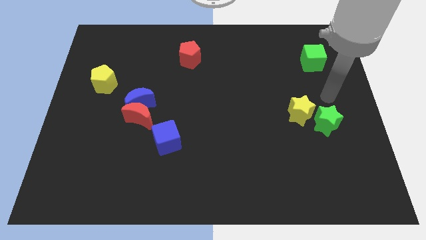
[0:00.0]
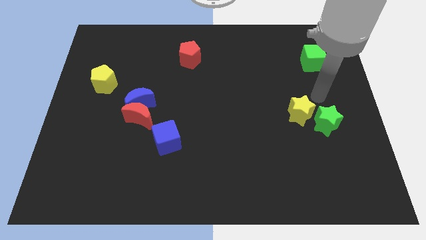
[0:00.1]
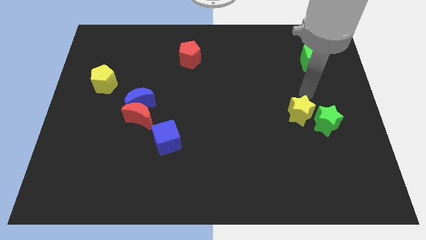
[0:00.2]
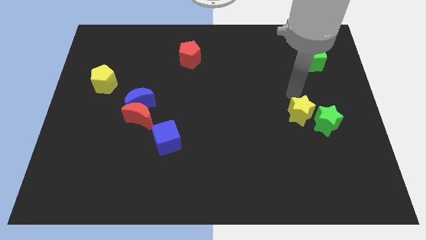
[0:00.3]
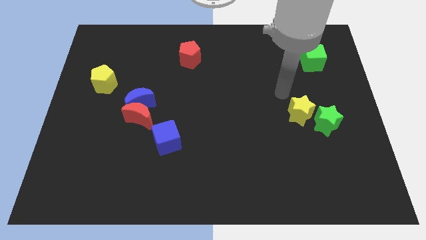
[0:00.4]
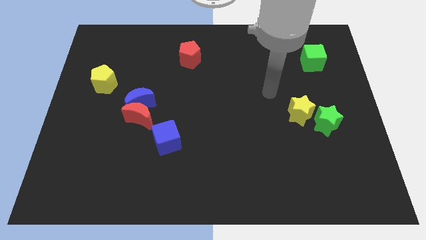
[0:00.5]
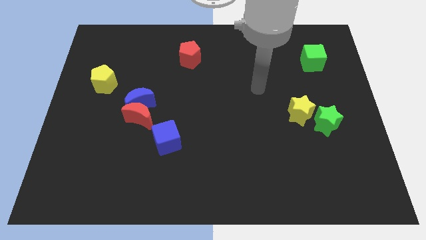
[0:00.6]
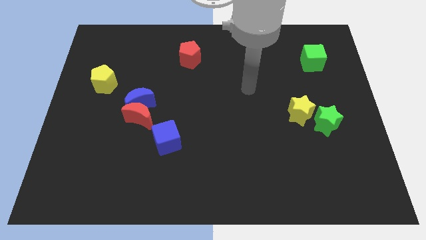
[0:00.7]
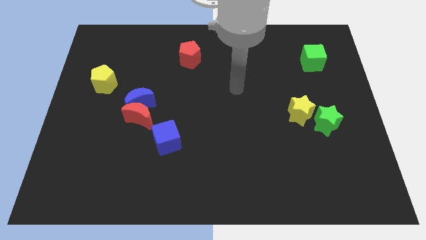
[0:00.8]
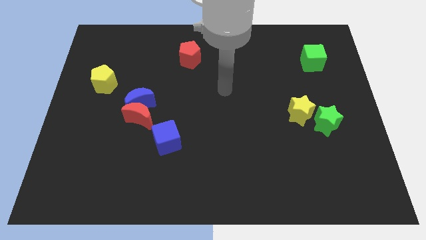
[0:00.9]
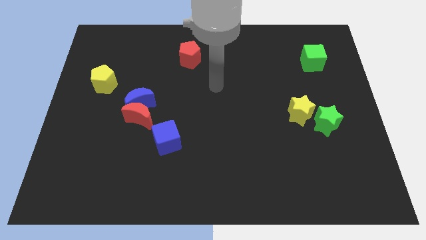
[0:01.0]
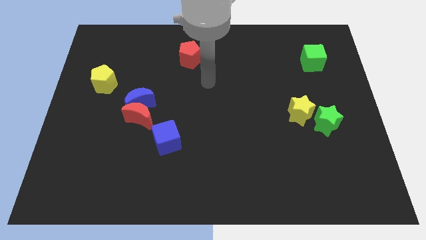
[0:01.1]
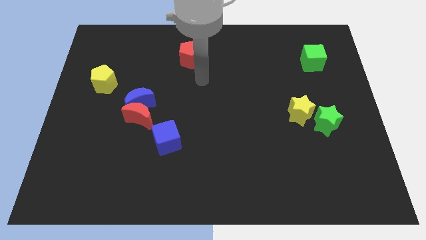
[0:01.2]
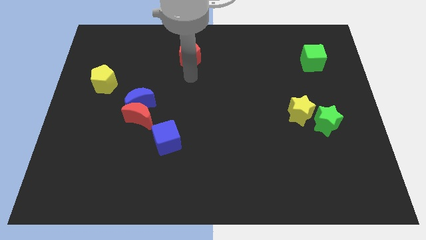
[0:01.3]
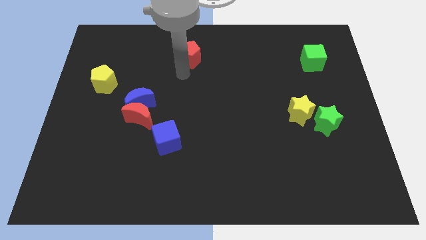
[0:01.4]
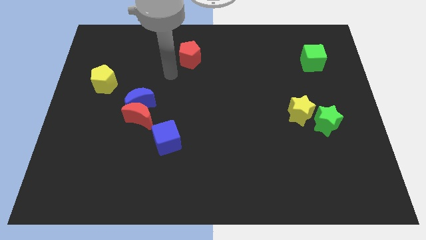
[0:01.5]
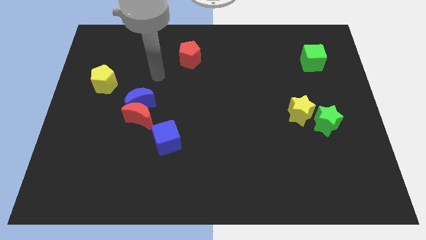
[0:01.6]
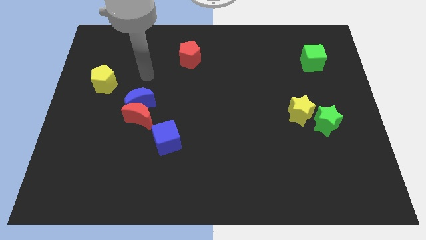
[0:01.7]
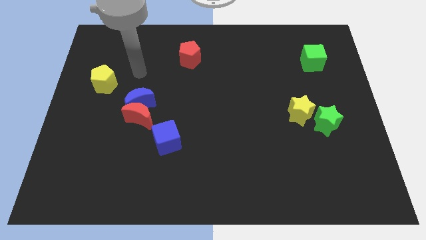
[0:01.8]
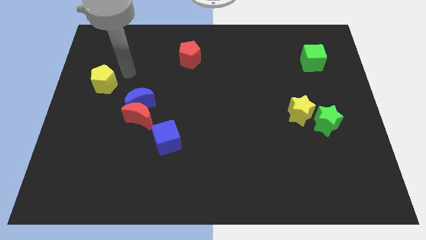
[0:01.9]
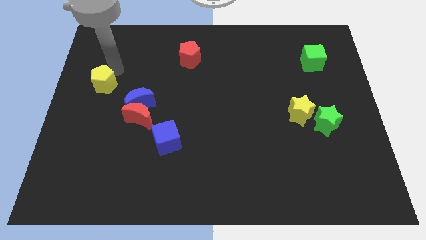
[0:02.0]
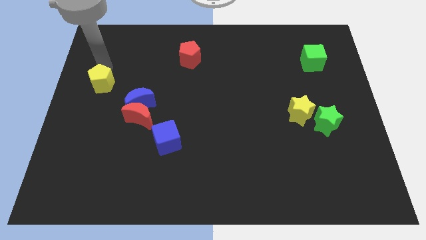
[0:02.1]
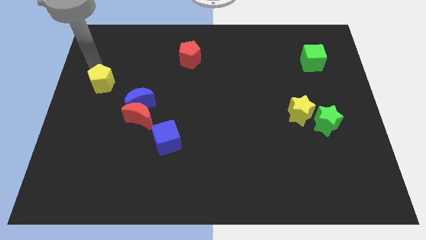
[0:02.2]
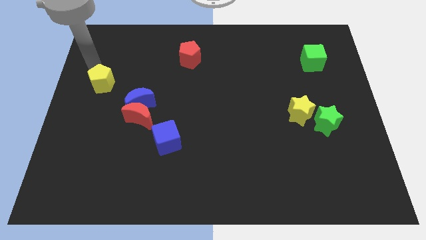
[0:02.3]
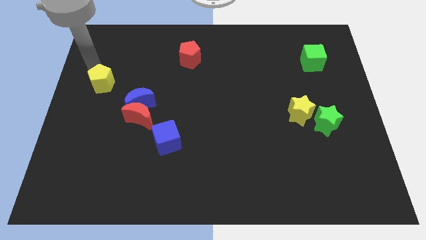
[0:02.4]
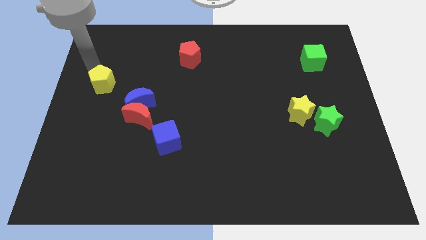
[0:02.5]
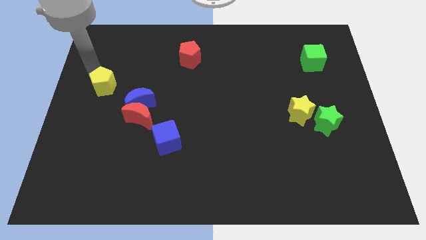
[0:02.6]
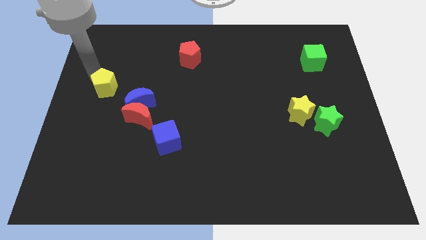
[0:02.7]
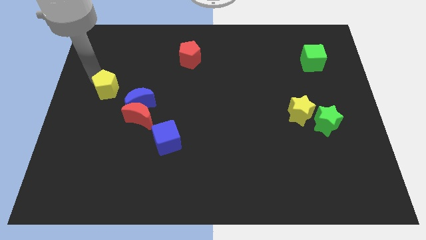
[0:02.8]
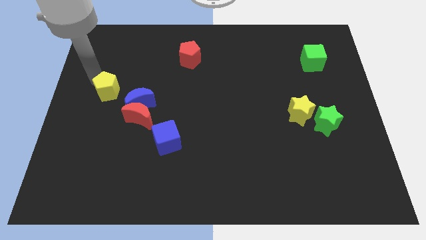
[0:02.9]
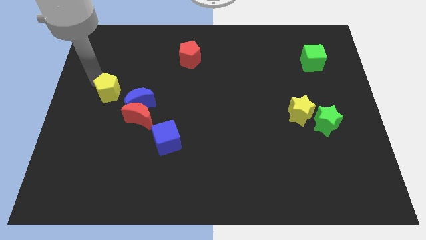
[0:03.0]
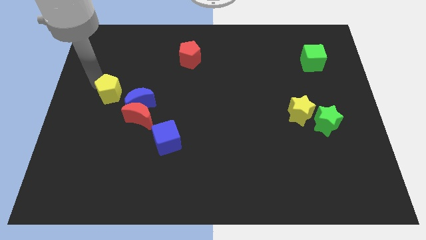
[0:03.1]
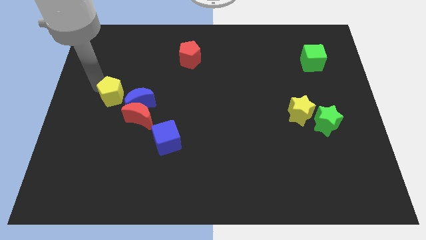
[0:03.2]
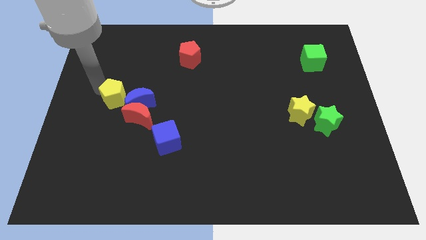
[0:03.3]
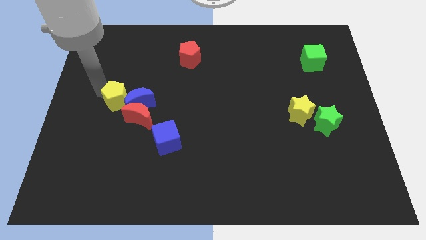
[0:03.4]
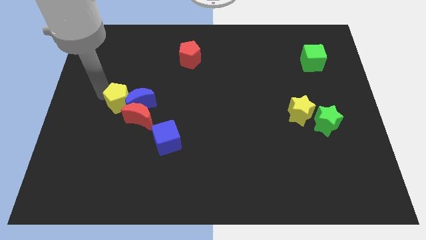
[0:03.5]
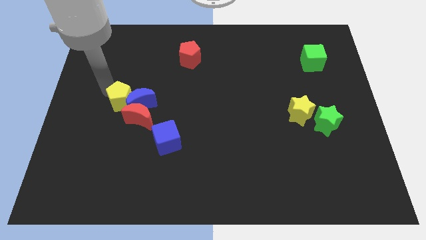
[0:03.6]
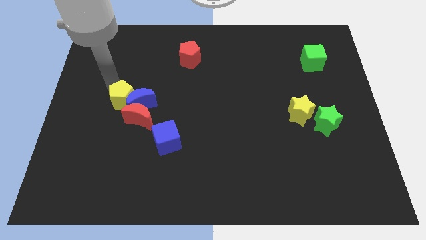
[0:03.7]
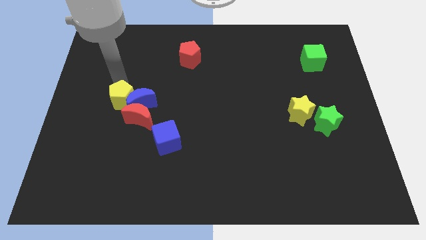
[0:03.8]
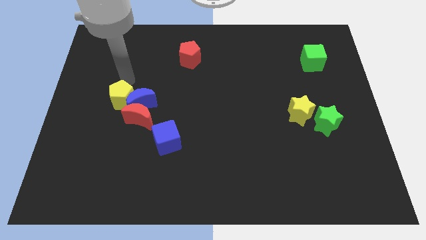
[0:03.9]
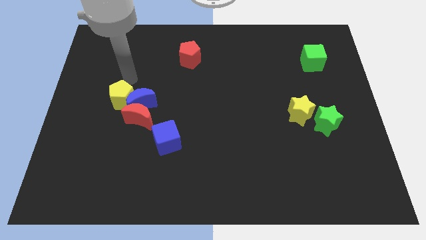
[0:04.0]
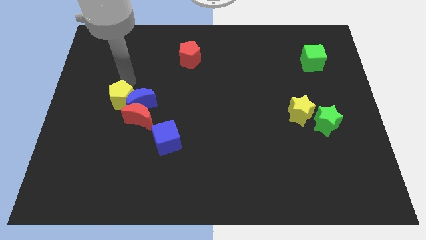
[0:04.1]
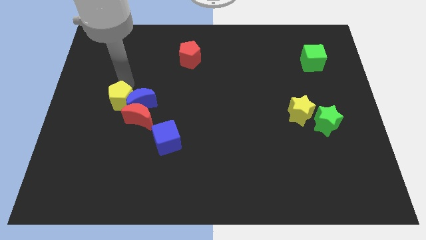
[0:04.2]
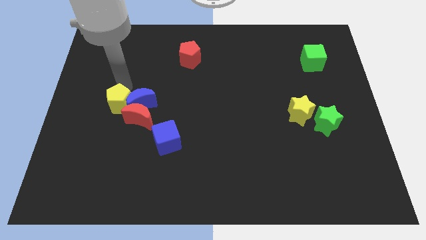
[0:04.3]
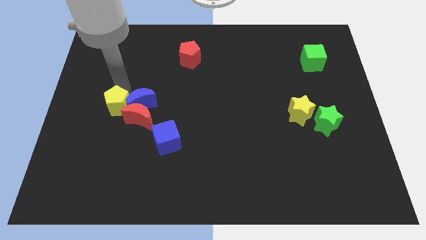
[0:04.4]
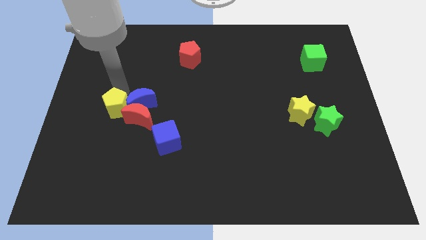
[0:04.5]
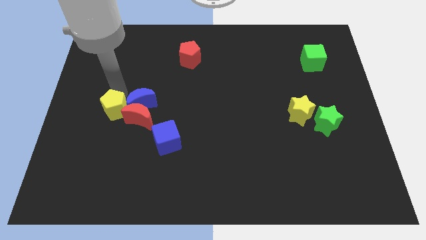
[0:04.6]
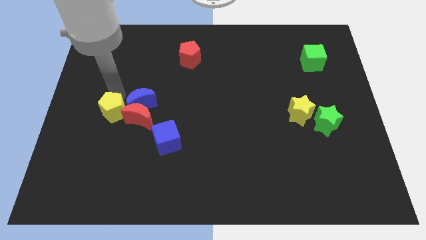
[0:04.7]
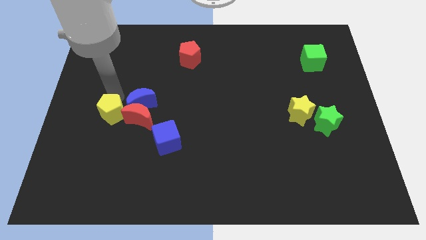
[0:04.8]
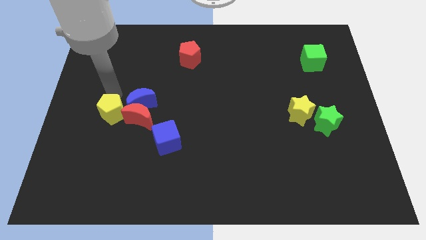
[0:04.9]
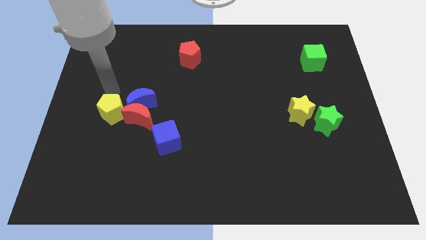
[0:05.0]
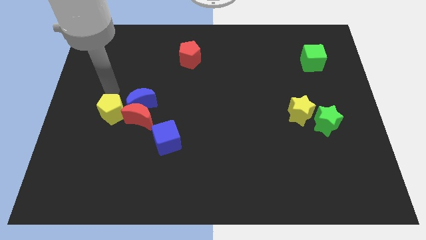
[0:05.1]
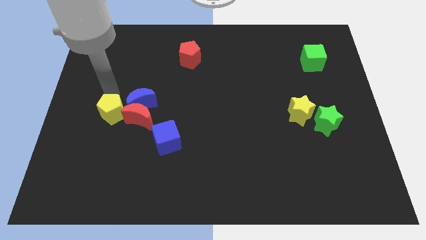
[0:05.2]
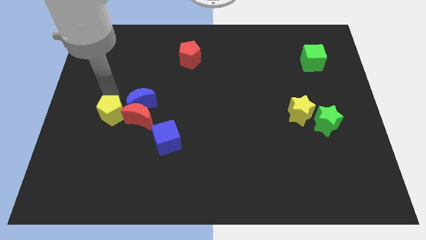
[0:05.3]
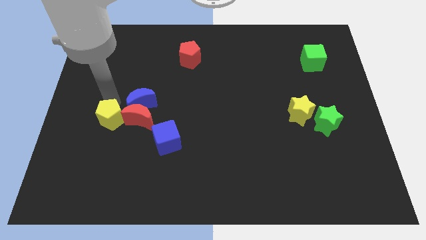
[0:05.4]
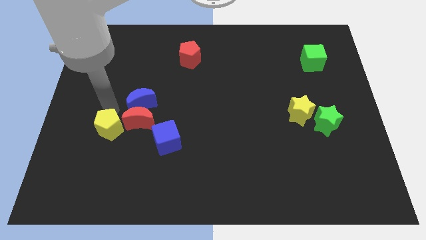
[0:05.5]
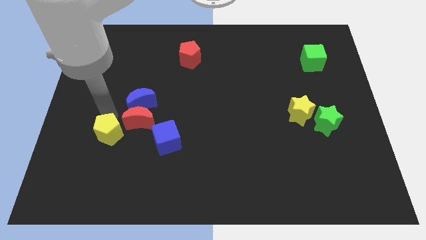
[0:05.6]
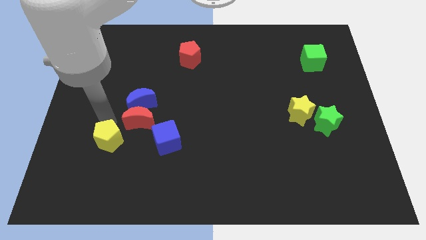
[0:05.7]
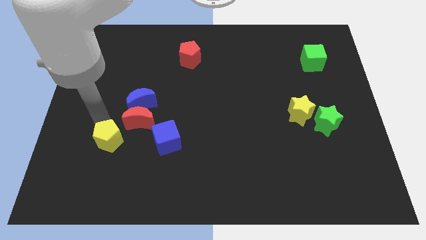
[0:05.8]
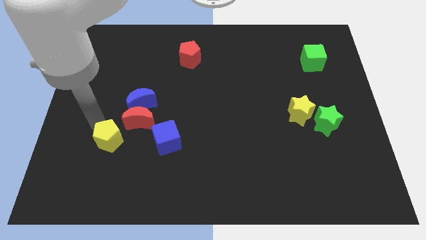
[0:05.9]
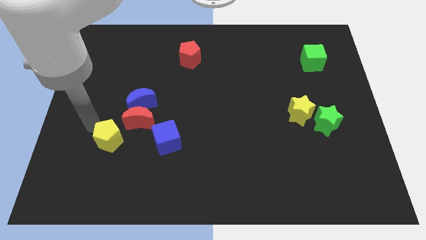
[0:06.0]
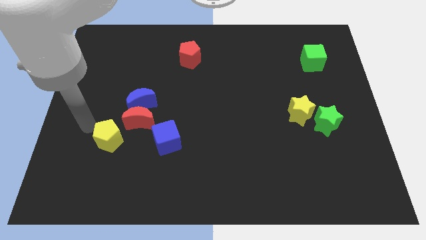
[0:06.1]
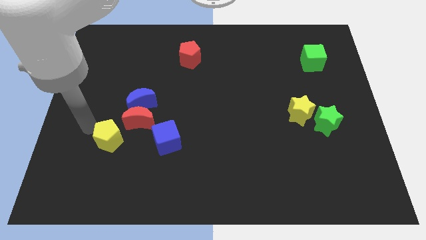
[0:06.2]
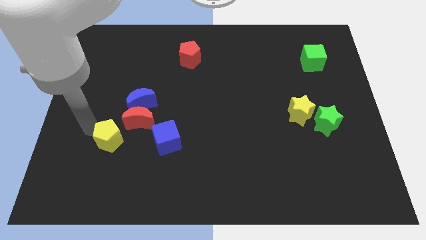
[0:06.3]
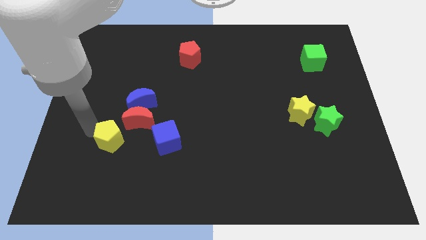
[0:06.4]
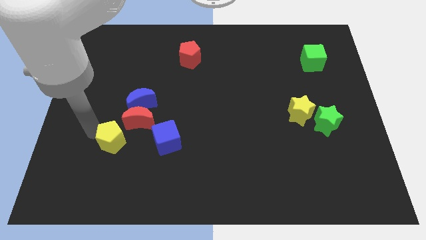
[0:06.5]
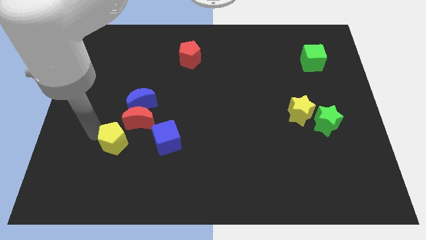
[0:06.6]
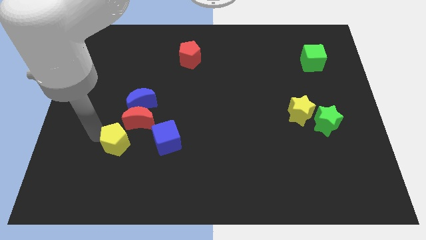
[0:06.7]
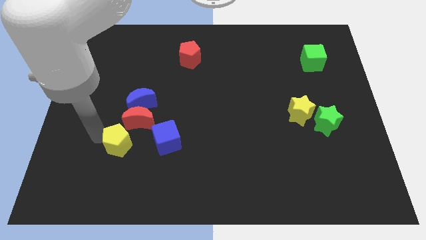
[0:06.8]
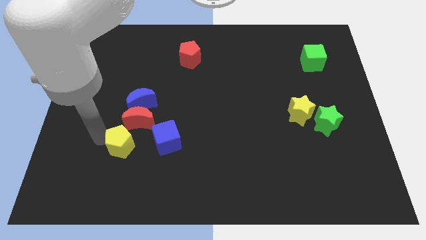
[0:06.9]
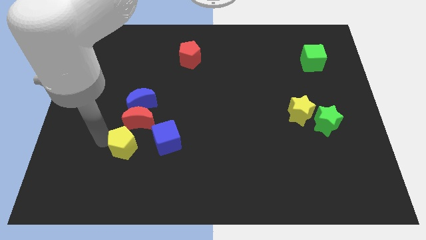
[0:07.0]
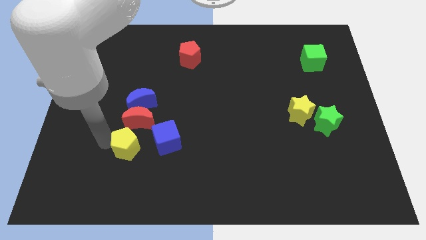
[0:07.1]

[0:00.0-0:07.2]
move the yellow pentagon diagonally down and to the left of the blue cube

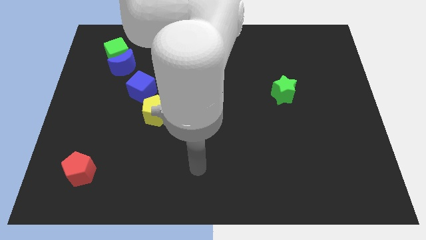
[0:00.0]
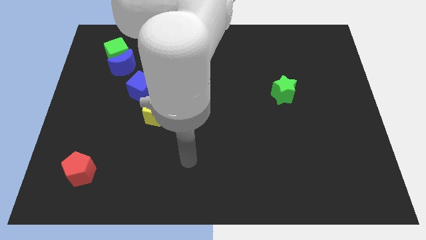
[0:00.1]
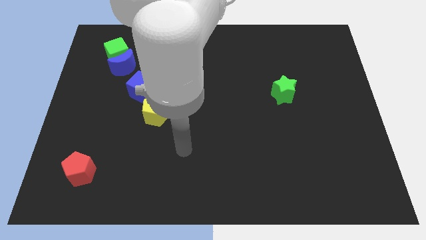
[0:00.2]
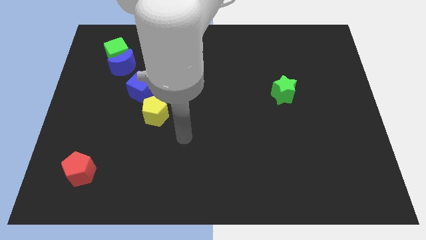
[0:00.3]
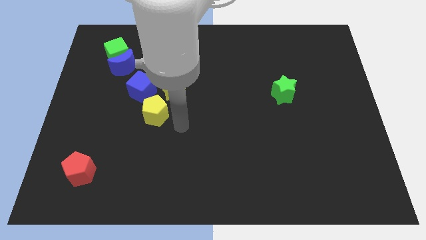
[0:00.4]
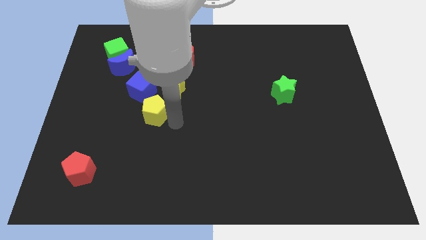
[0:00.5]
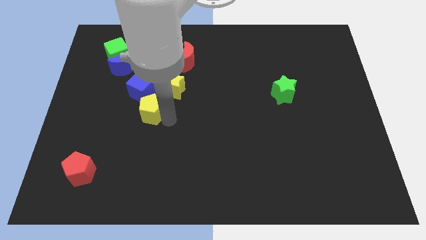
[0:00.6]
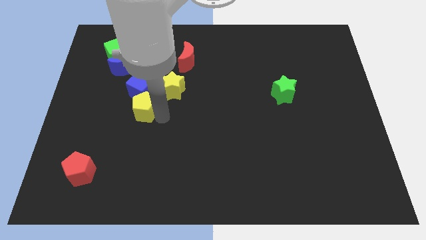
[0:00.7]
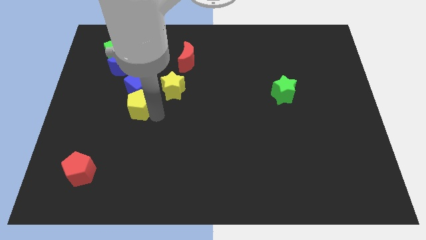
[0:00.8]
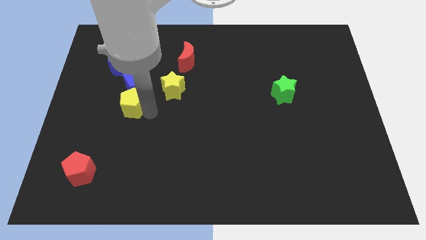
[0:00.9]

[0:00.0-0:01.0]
slide the yellow pentagon to the bottom side of the blue moon
